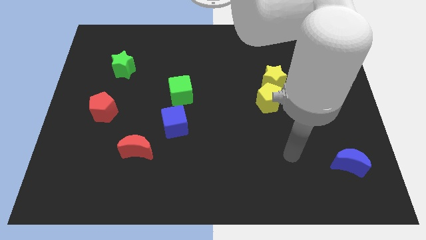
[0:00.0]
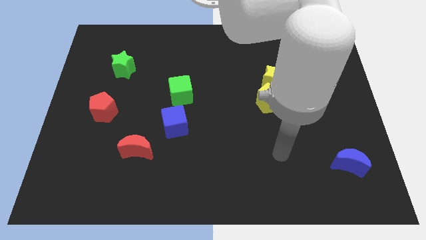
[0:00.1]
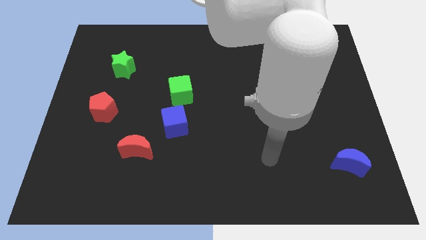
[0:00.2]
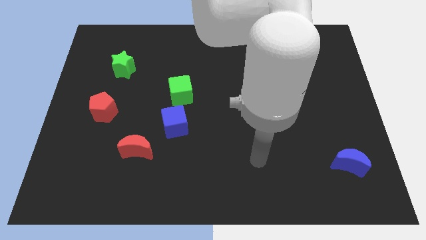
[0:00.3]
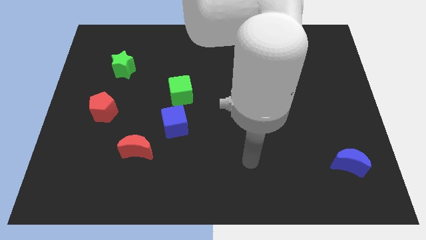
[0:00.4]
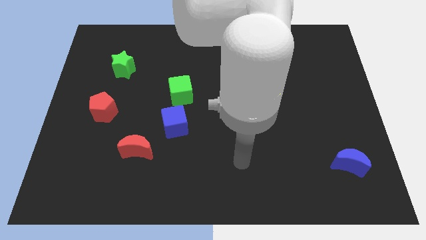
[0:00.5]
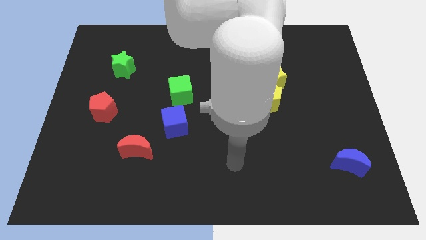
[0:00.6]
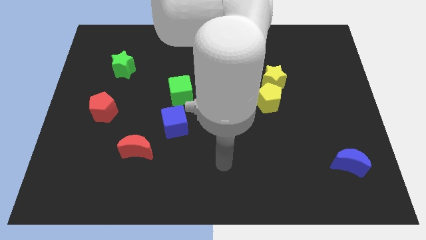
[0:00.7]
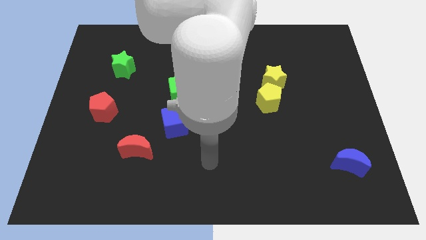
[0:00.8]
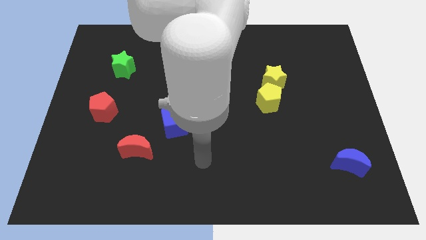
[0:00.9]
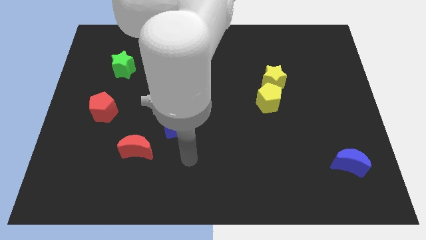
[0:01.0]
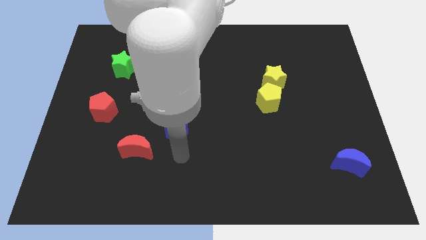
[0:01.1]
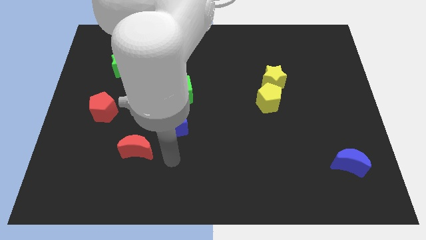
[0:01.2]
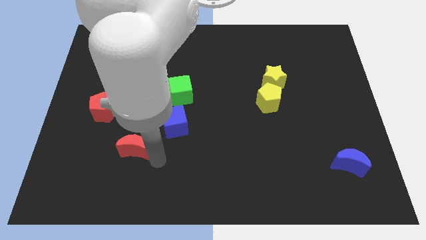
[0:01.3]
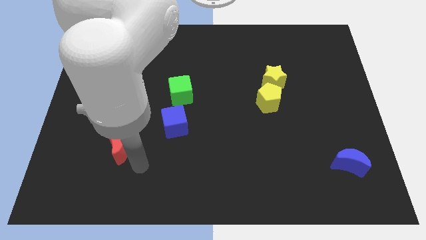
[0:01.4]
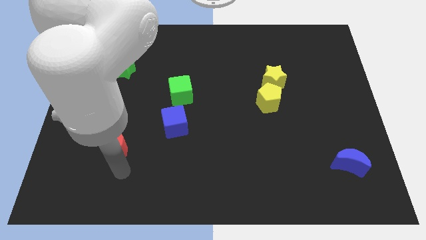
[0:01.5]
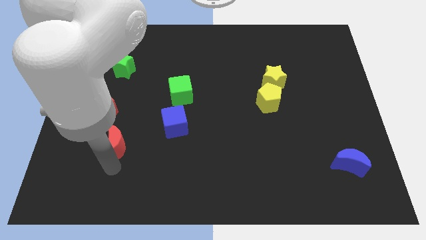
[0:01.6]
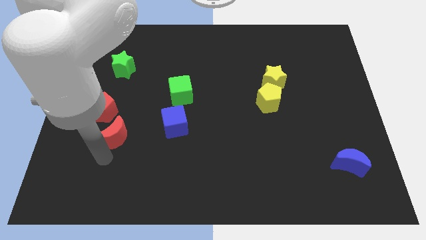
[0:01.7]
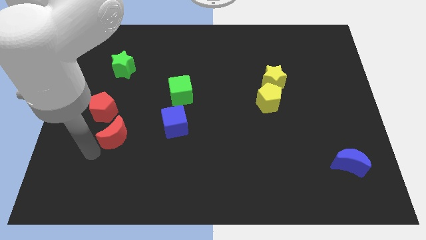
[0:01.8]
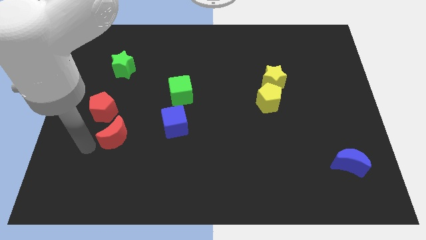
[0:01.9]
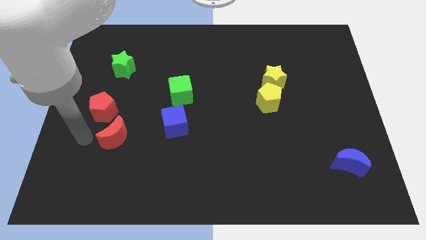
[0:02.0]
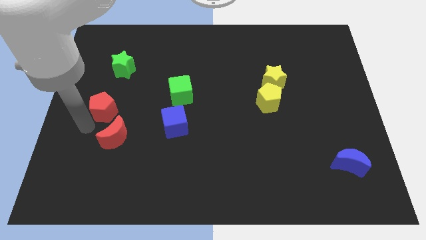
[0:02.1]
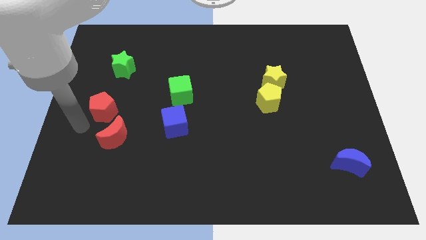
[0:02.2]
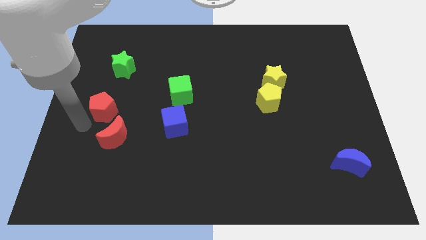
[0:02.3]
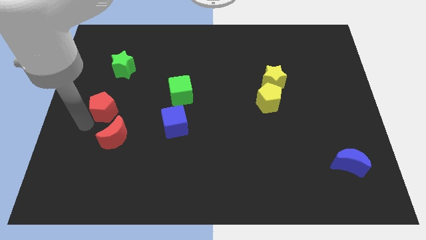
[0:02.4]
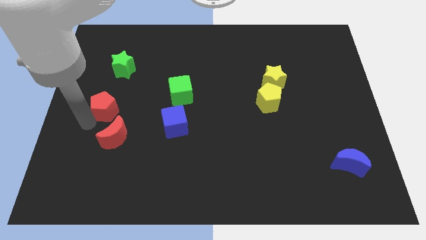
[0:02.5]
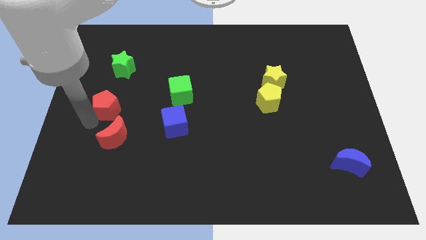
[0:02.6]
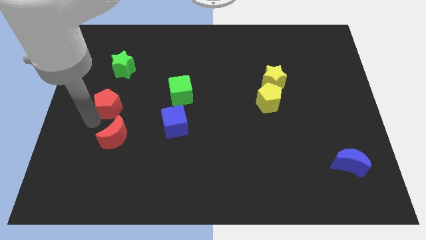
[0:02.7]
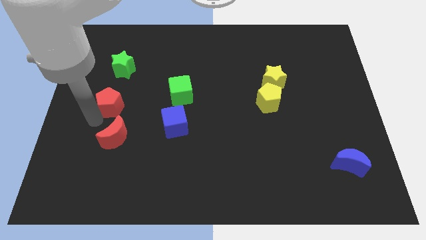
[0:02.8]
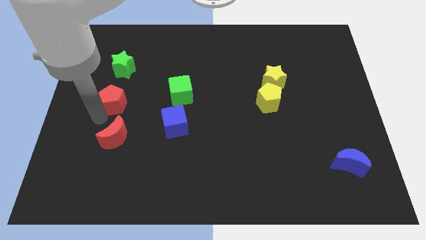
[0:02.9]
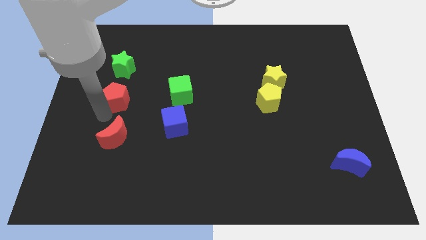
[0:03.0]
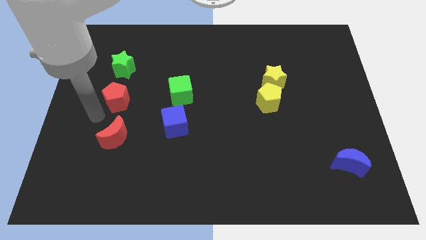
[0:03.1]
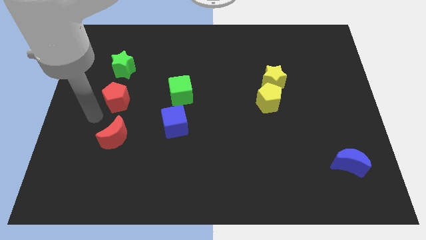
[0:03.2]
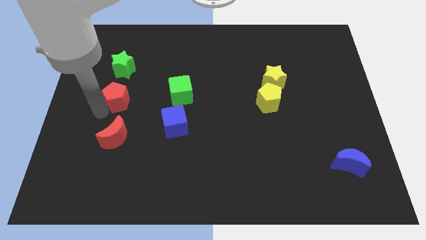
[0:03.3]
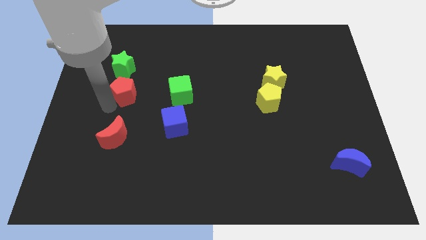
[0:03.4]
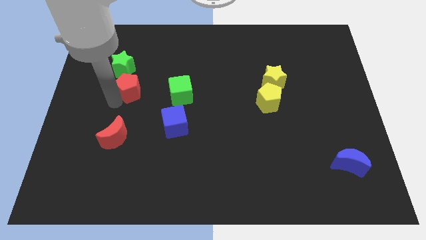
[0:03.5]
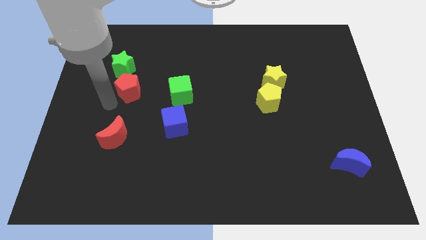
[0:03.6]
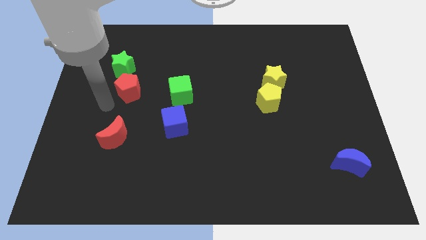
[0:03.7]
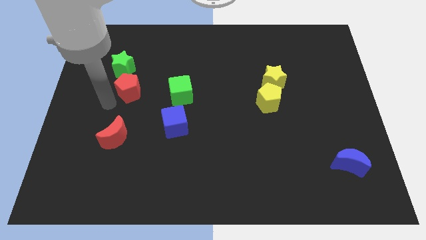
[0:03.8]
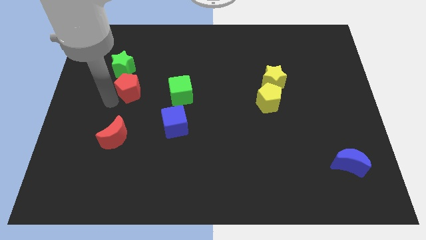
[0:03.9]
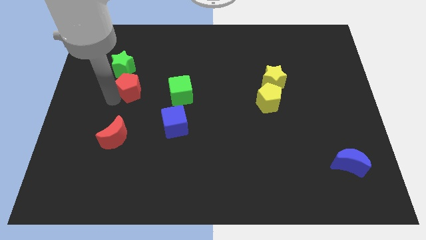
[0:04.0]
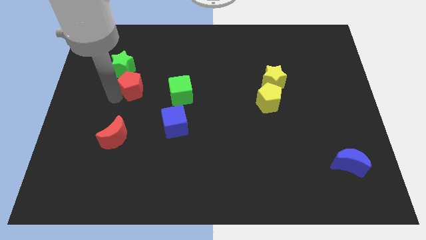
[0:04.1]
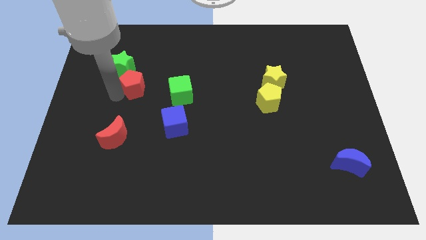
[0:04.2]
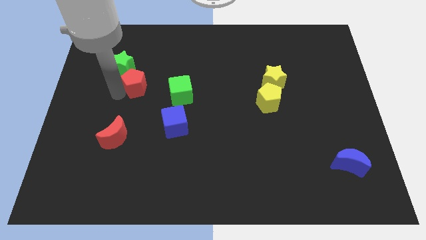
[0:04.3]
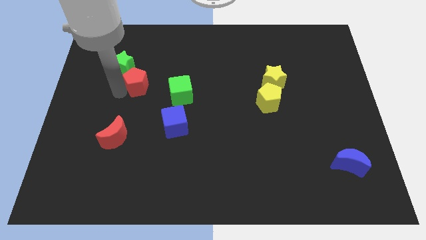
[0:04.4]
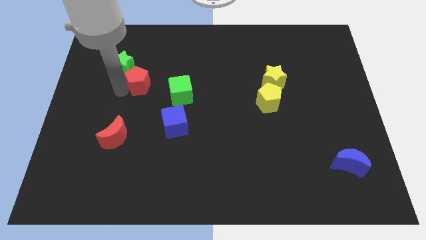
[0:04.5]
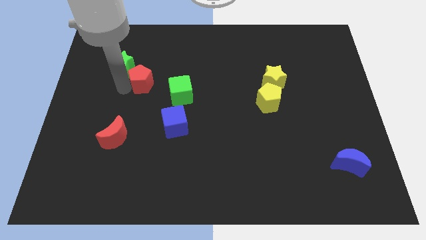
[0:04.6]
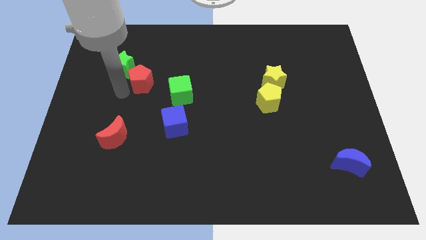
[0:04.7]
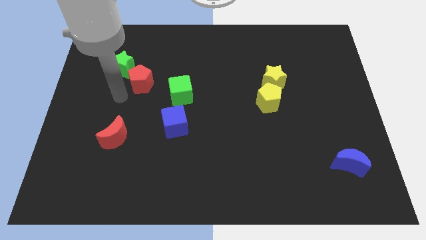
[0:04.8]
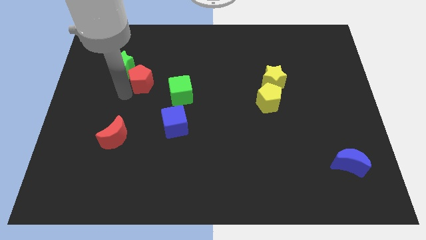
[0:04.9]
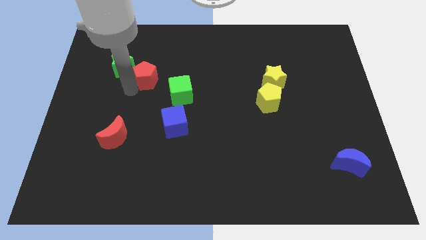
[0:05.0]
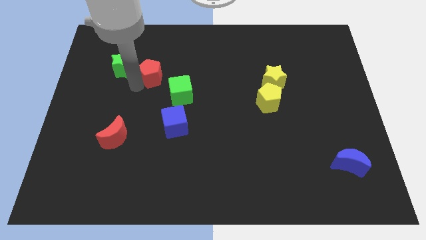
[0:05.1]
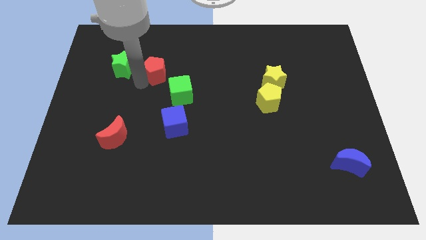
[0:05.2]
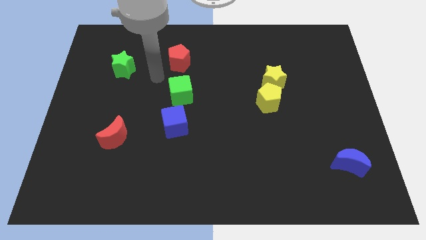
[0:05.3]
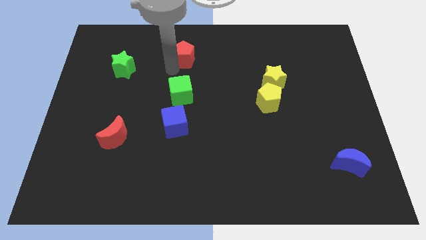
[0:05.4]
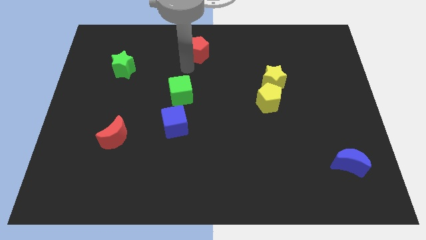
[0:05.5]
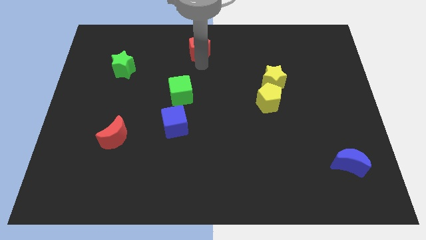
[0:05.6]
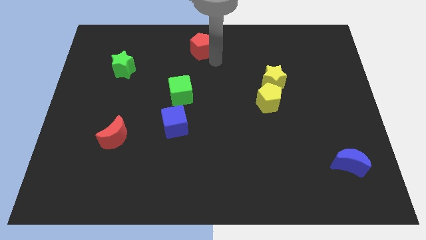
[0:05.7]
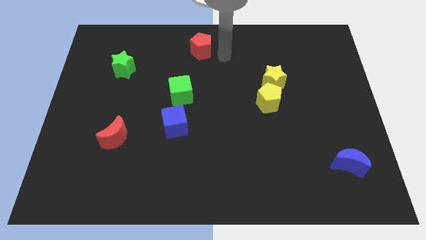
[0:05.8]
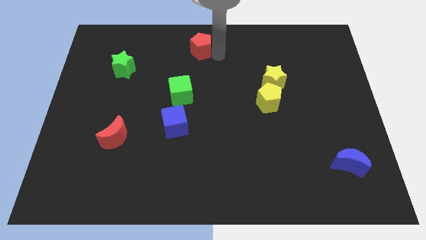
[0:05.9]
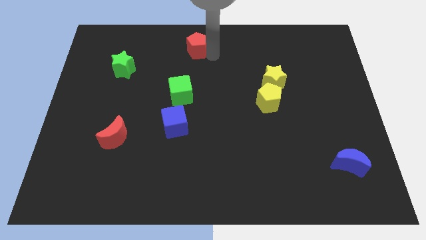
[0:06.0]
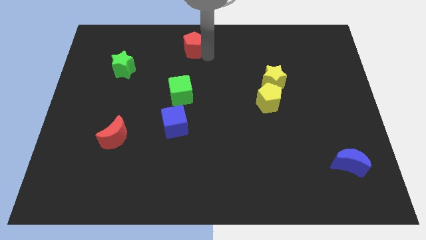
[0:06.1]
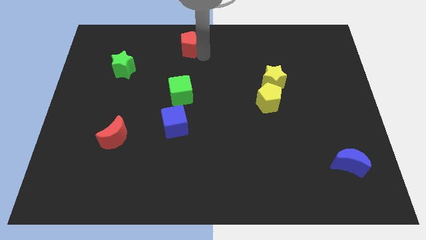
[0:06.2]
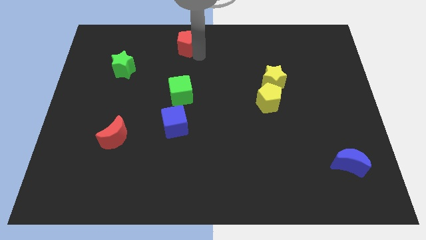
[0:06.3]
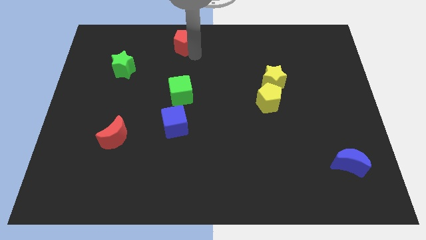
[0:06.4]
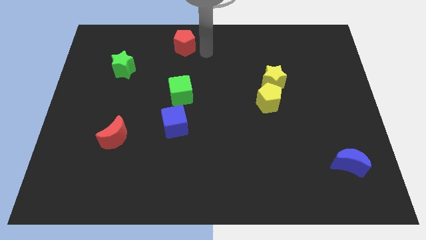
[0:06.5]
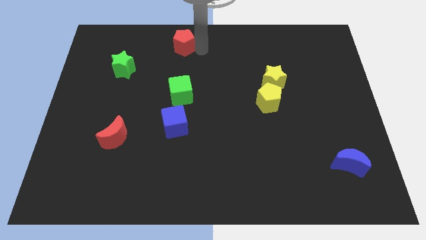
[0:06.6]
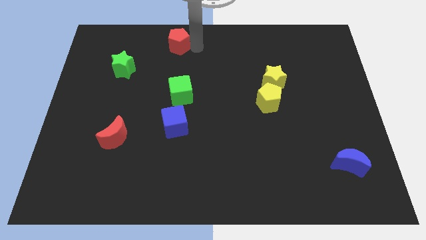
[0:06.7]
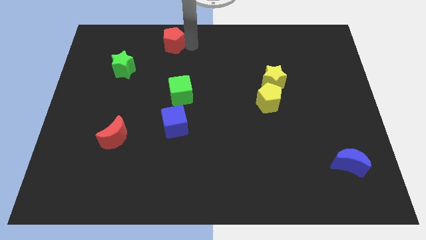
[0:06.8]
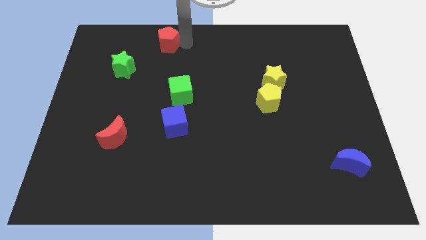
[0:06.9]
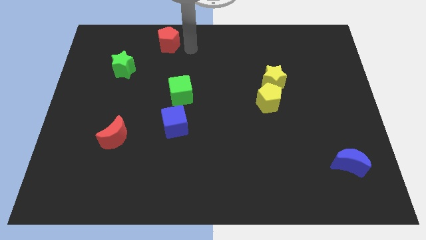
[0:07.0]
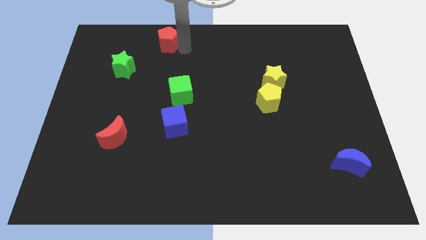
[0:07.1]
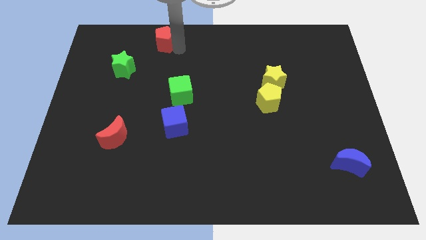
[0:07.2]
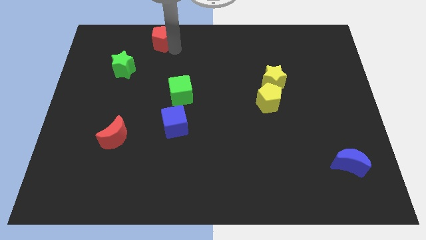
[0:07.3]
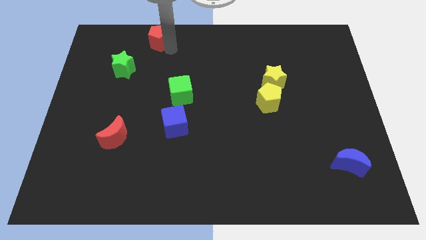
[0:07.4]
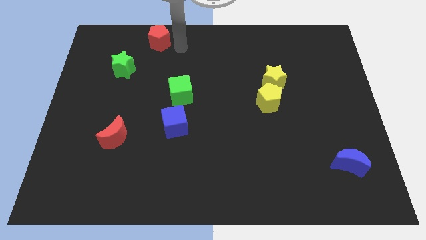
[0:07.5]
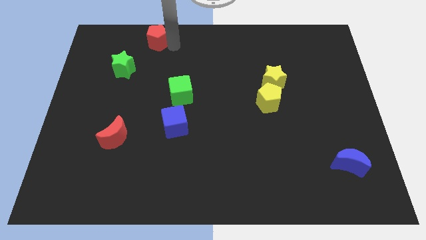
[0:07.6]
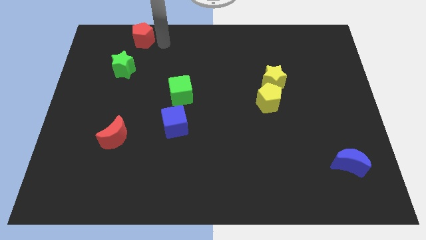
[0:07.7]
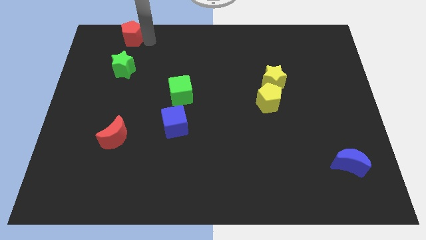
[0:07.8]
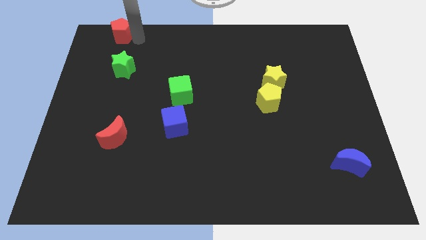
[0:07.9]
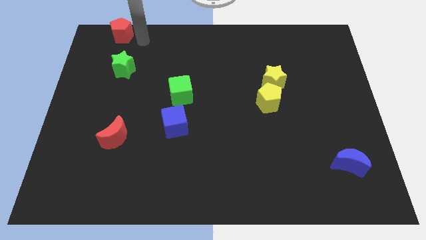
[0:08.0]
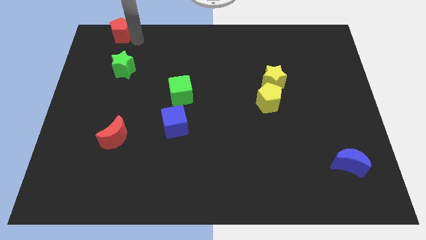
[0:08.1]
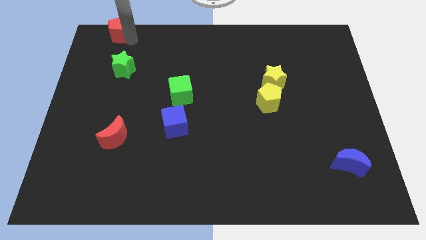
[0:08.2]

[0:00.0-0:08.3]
put the red pentagon to the top left of the board

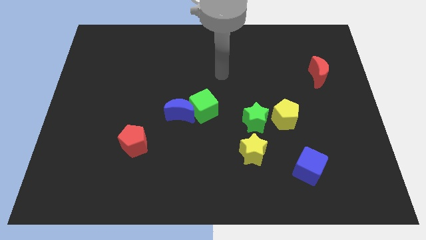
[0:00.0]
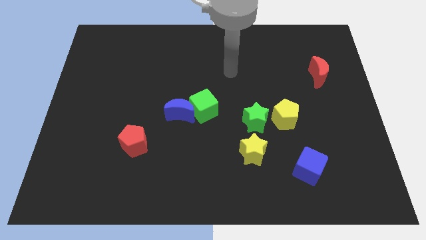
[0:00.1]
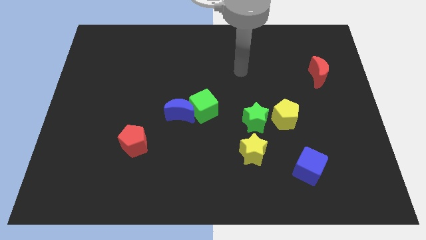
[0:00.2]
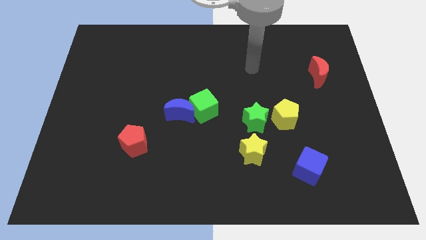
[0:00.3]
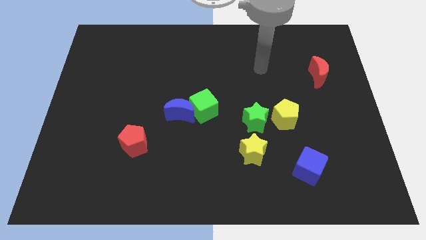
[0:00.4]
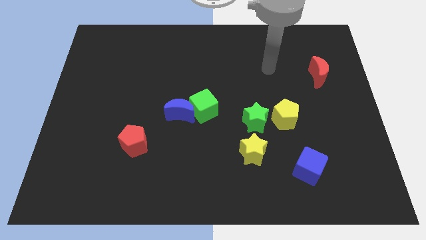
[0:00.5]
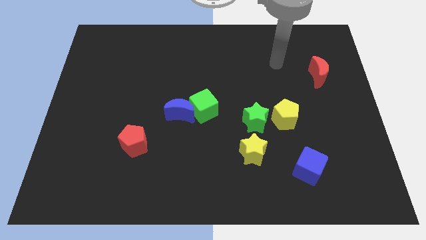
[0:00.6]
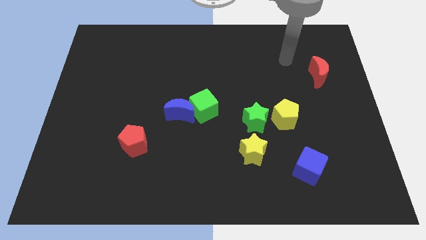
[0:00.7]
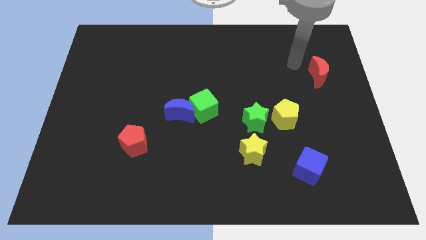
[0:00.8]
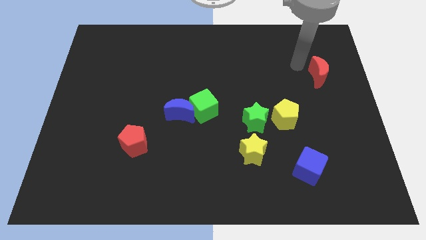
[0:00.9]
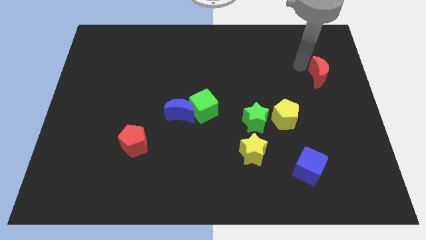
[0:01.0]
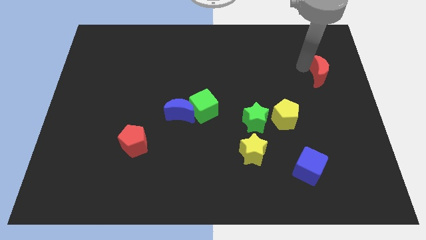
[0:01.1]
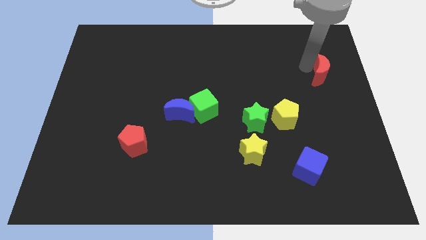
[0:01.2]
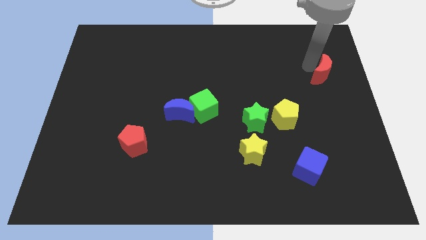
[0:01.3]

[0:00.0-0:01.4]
push the red moon to the right side
